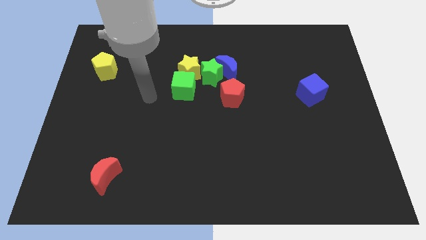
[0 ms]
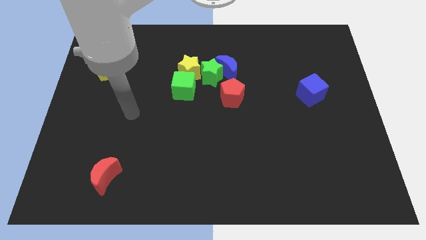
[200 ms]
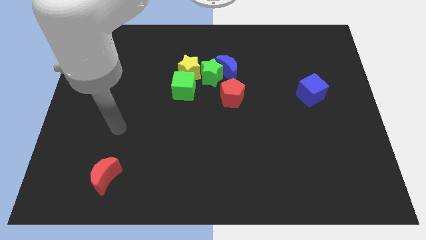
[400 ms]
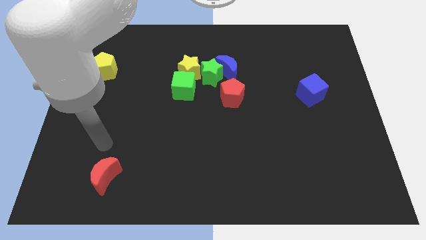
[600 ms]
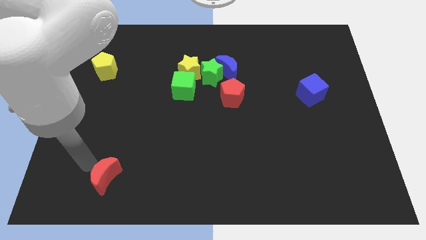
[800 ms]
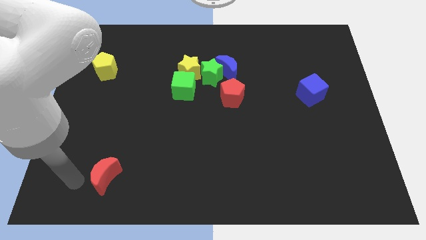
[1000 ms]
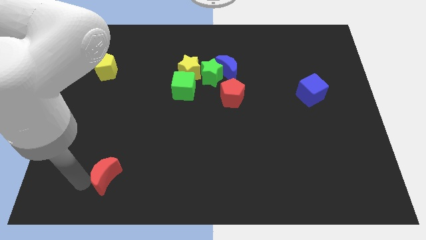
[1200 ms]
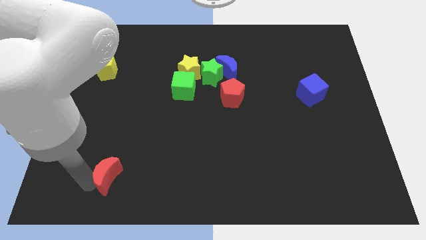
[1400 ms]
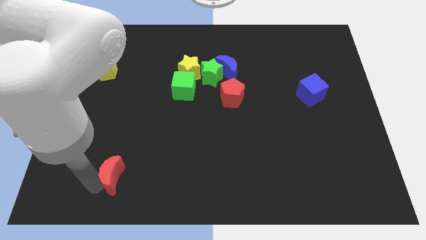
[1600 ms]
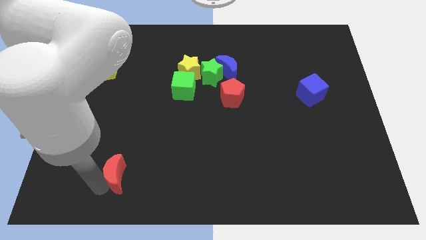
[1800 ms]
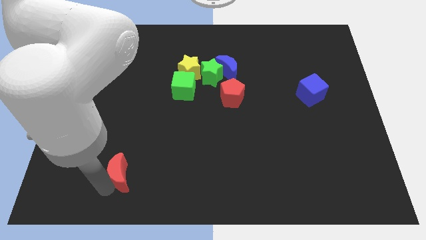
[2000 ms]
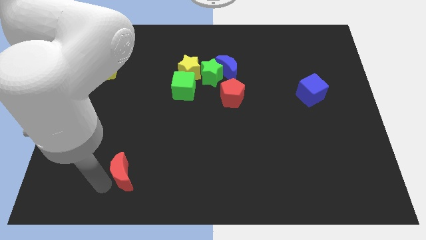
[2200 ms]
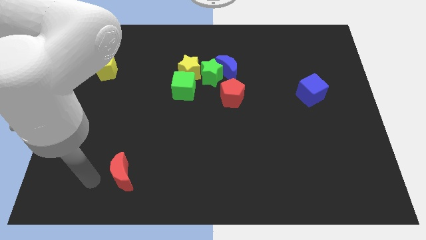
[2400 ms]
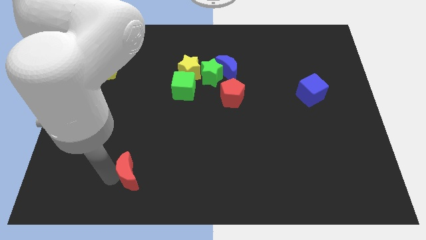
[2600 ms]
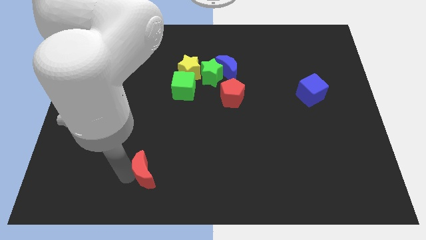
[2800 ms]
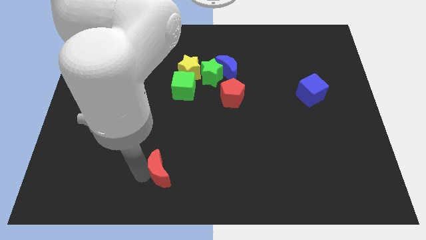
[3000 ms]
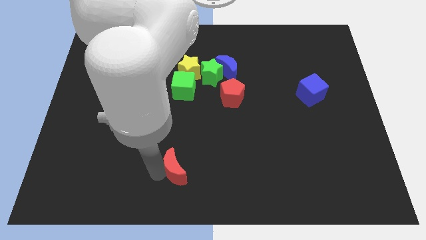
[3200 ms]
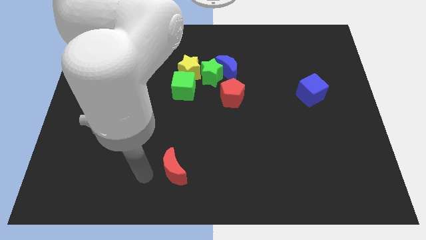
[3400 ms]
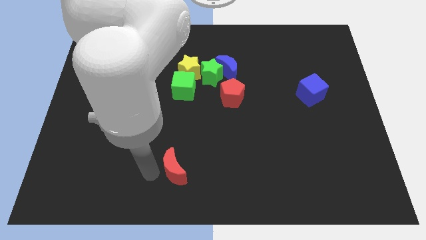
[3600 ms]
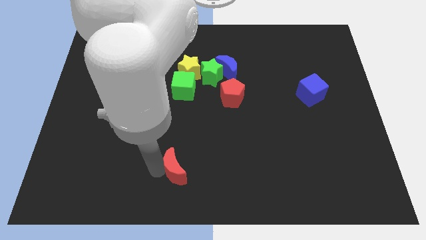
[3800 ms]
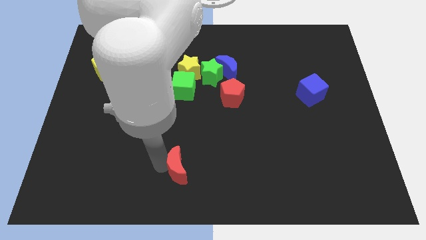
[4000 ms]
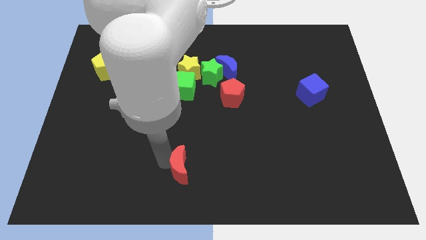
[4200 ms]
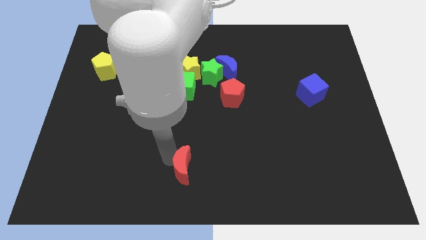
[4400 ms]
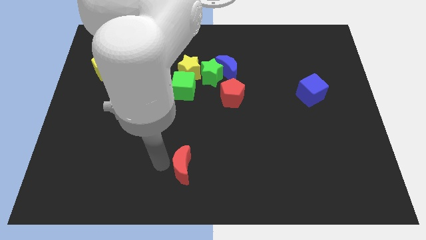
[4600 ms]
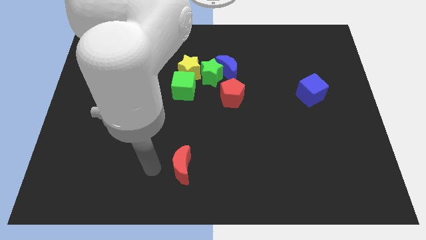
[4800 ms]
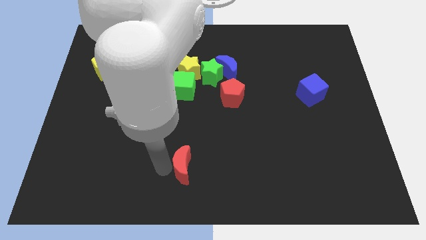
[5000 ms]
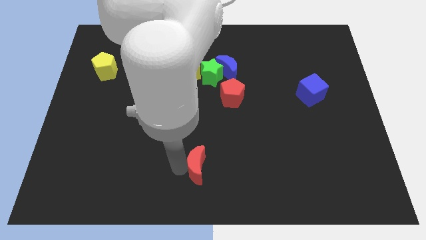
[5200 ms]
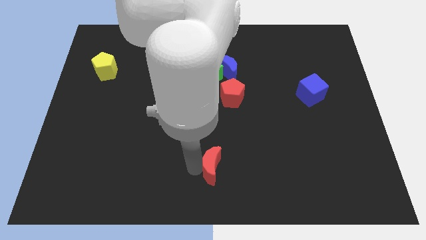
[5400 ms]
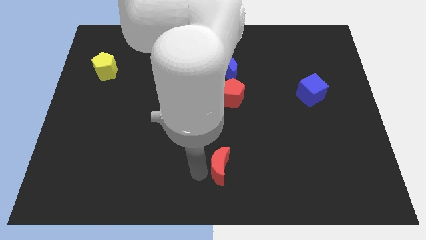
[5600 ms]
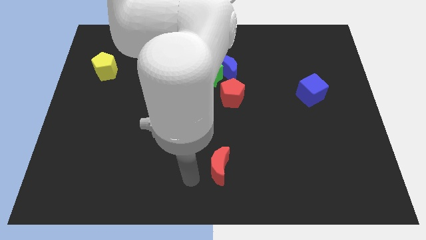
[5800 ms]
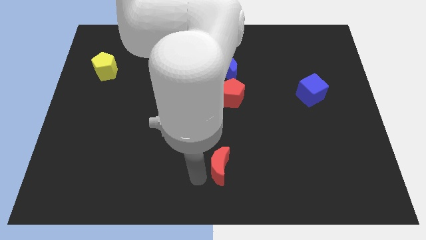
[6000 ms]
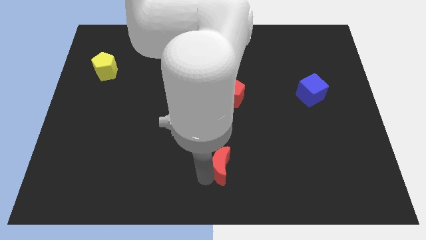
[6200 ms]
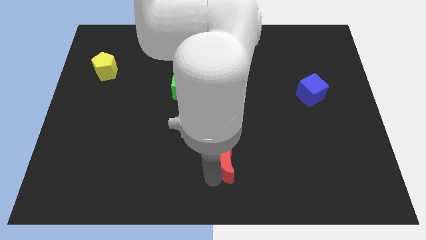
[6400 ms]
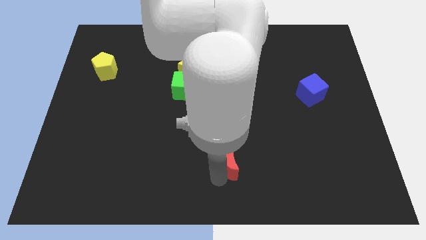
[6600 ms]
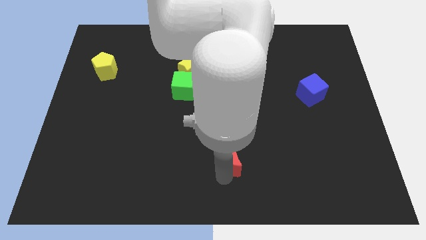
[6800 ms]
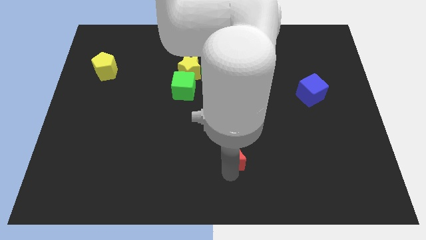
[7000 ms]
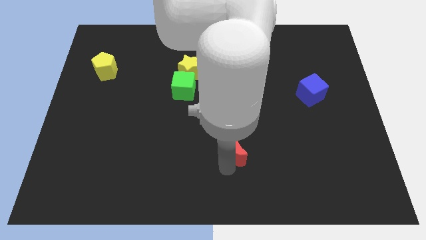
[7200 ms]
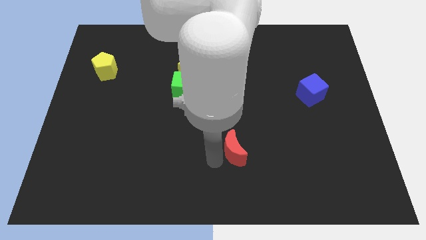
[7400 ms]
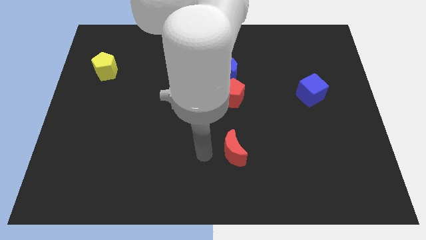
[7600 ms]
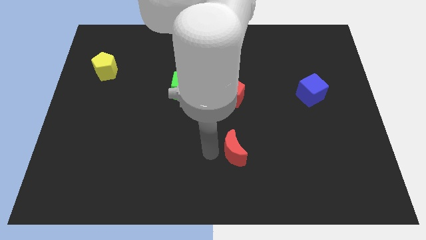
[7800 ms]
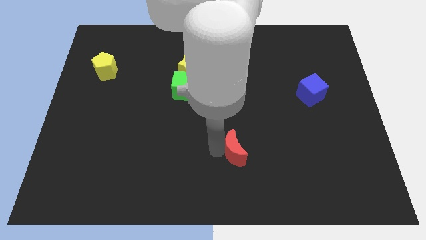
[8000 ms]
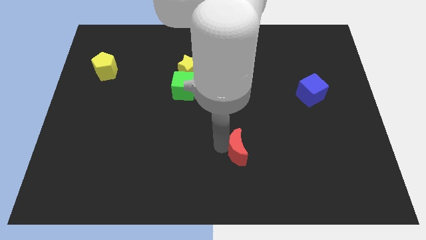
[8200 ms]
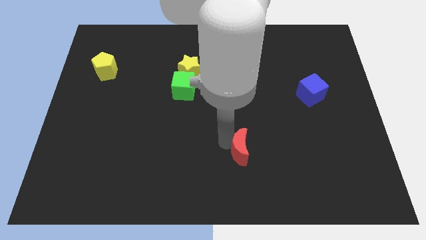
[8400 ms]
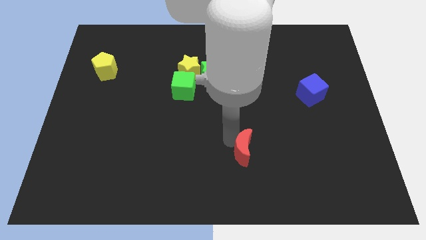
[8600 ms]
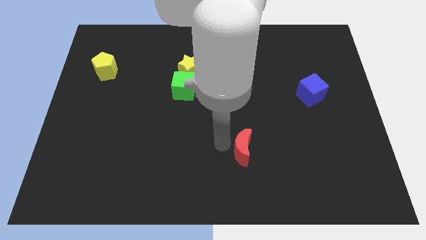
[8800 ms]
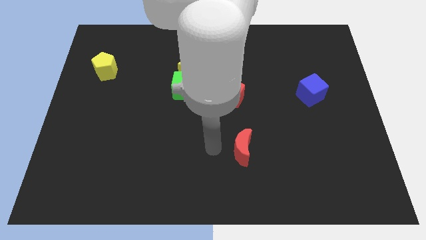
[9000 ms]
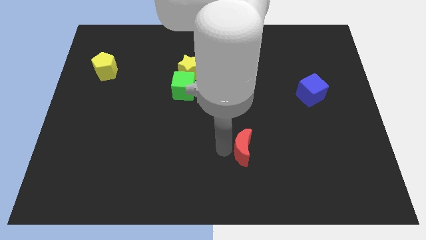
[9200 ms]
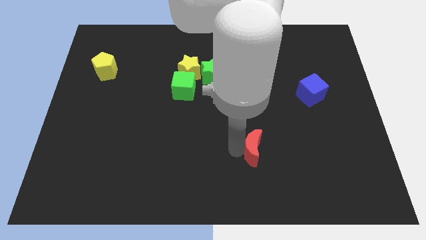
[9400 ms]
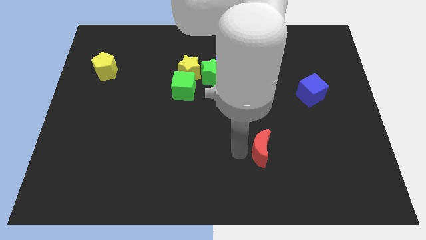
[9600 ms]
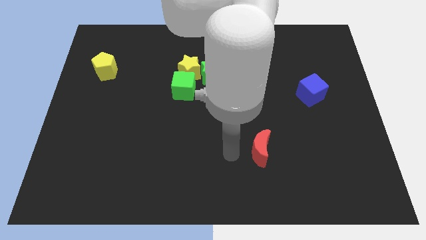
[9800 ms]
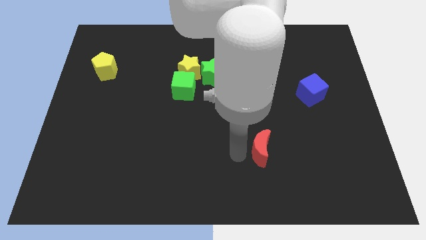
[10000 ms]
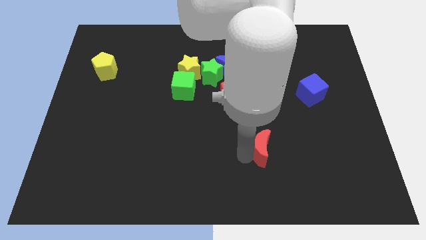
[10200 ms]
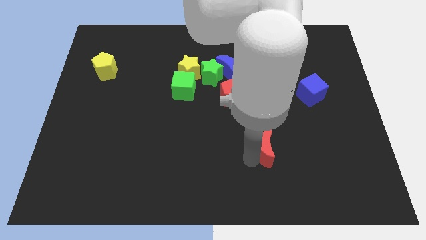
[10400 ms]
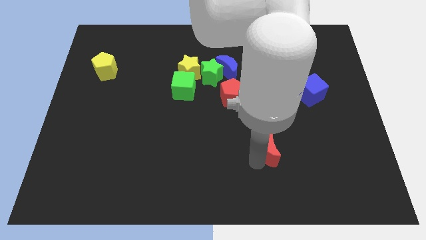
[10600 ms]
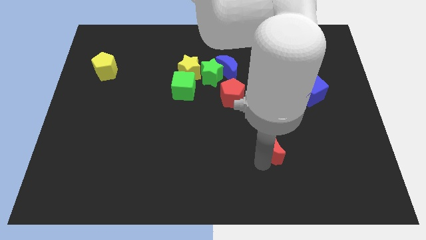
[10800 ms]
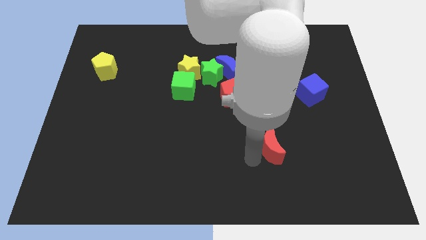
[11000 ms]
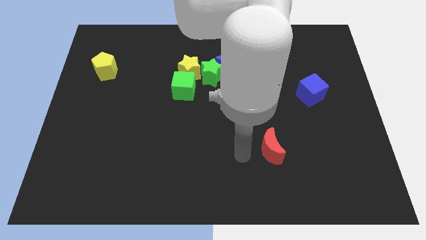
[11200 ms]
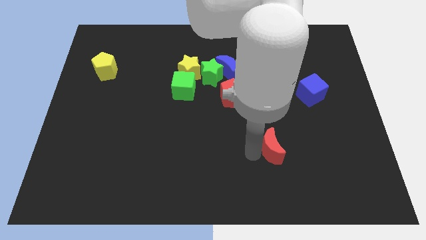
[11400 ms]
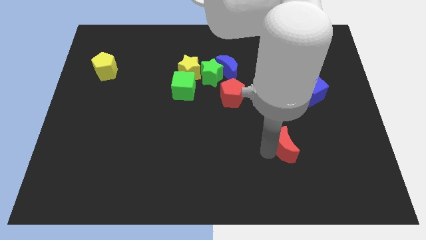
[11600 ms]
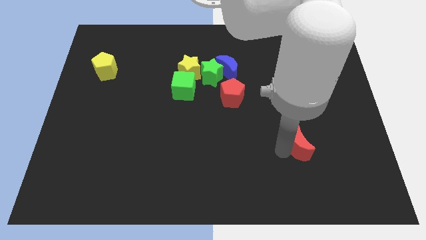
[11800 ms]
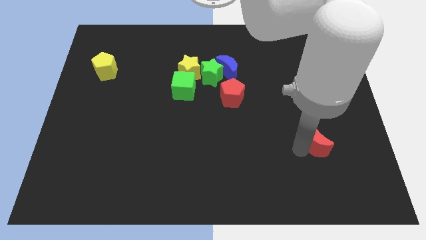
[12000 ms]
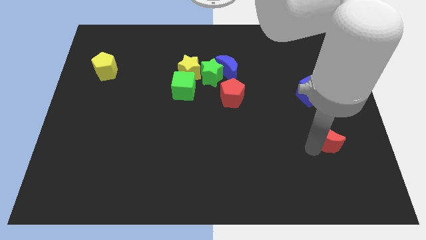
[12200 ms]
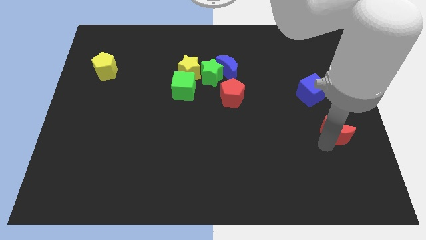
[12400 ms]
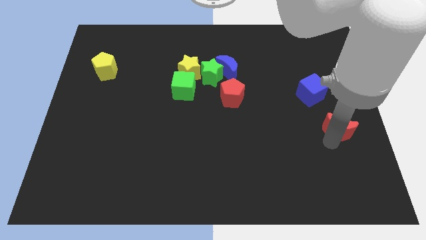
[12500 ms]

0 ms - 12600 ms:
move the red moon to the right side

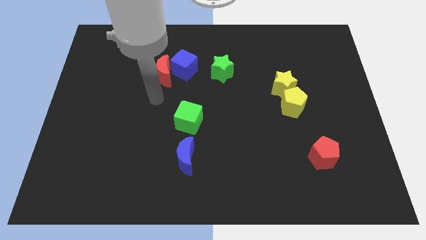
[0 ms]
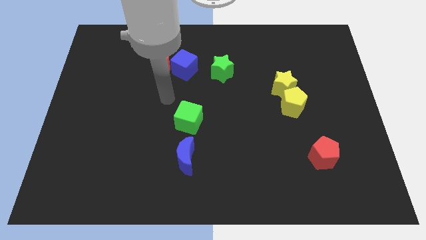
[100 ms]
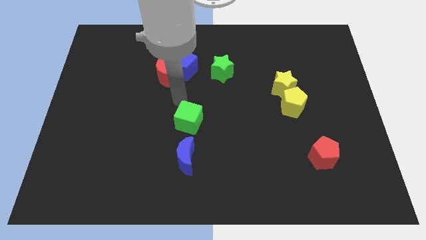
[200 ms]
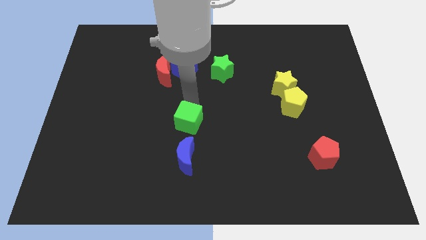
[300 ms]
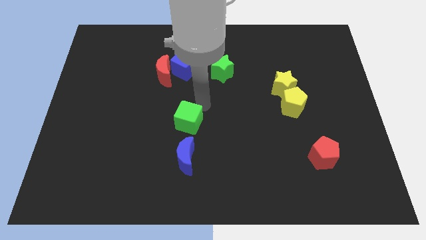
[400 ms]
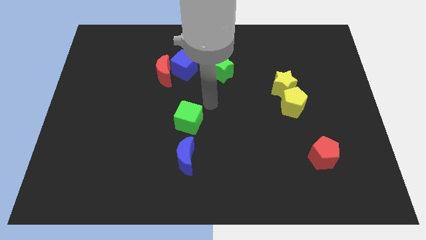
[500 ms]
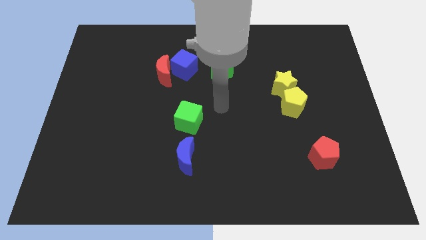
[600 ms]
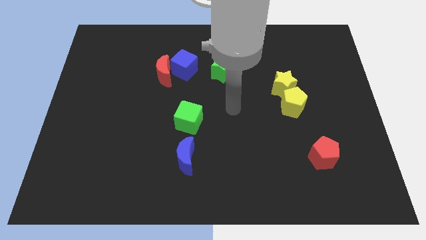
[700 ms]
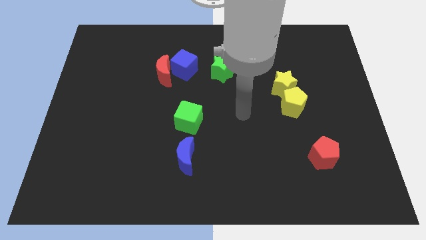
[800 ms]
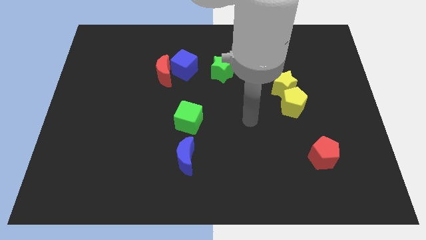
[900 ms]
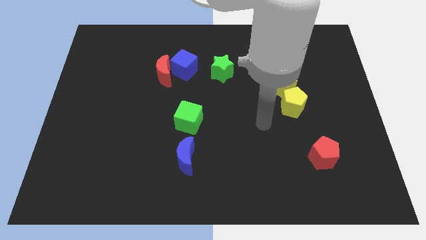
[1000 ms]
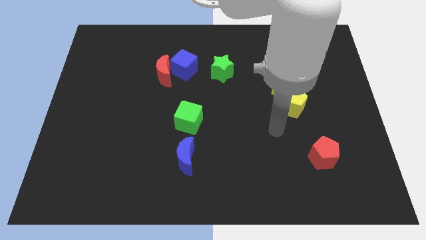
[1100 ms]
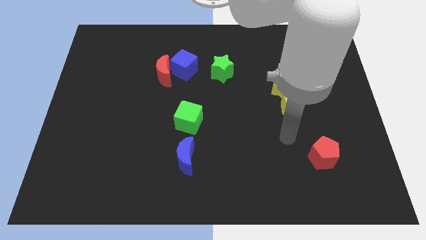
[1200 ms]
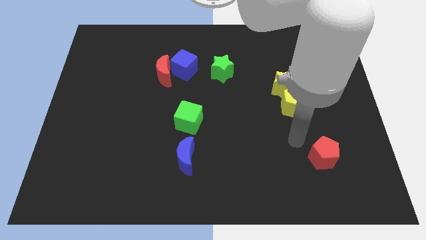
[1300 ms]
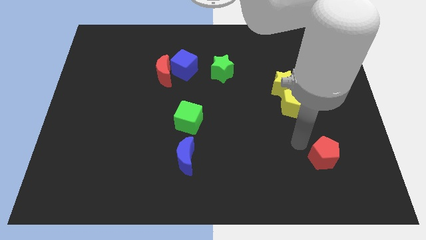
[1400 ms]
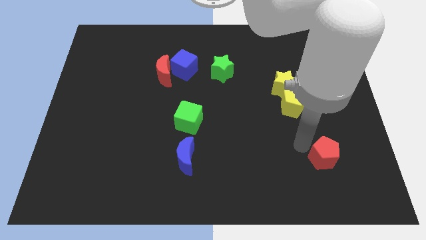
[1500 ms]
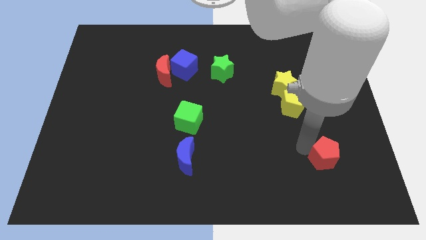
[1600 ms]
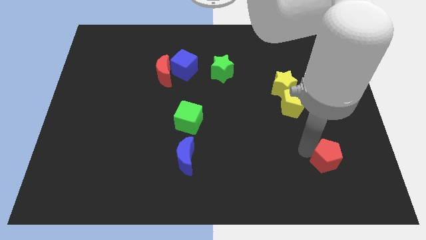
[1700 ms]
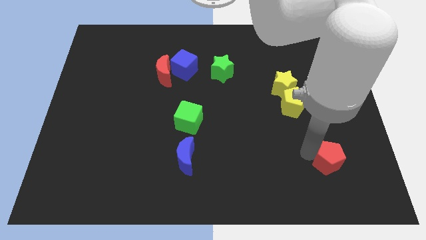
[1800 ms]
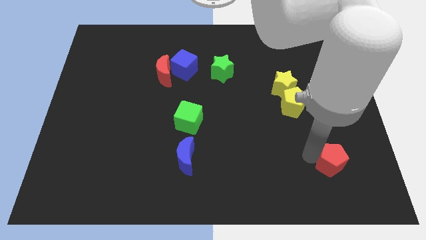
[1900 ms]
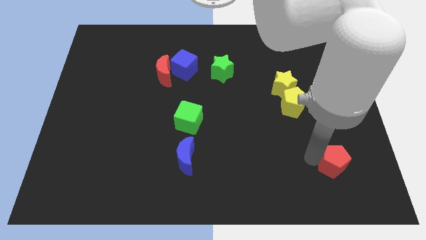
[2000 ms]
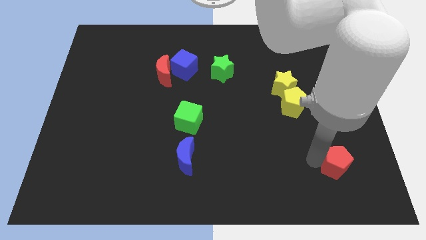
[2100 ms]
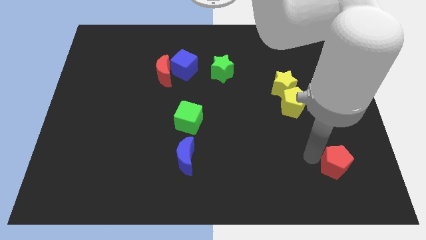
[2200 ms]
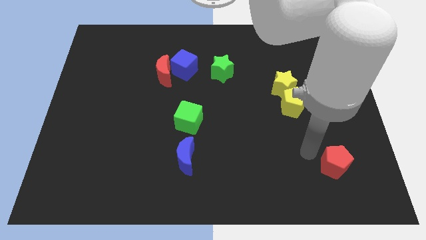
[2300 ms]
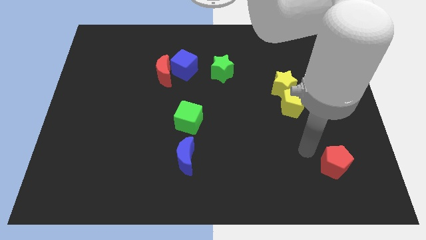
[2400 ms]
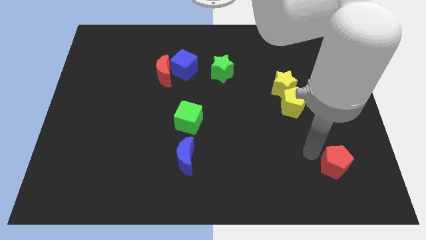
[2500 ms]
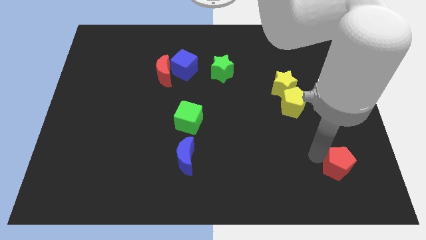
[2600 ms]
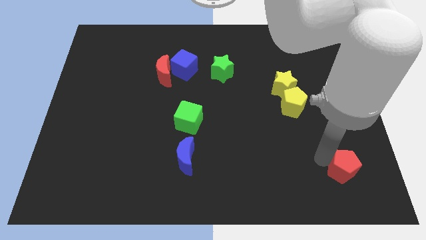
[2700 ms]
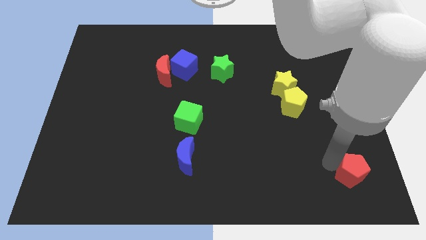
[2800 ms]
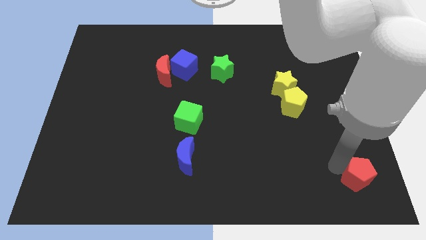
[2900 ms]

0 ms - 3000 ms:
slide the red pentagon to the bottom right of the board
